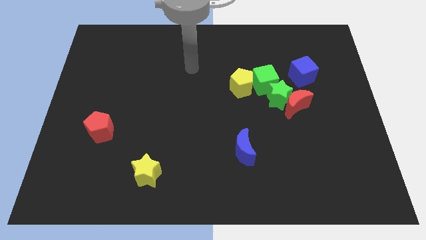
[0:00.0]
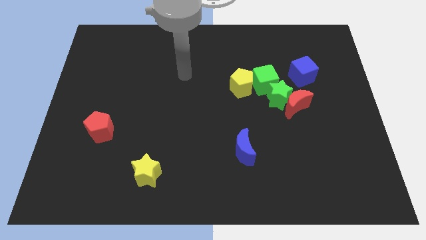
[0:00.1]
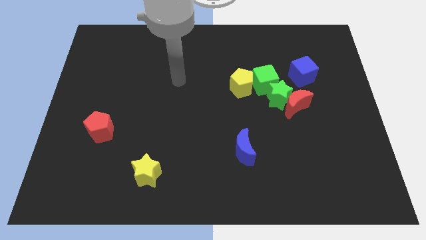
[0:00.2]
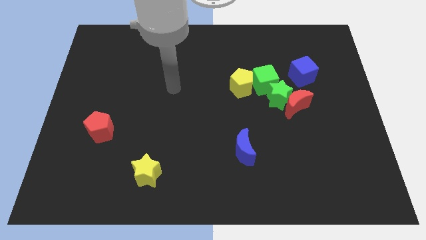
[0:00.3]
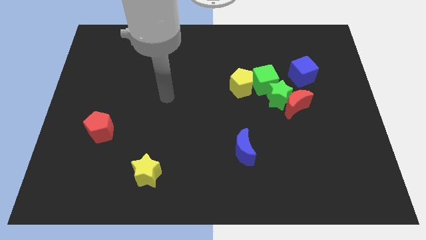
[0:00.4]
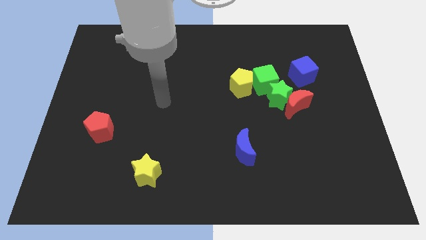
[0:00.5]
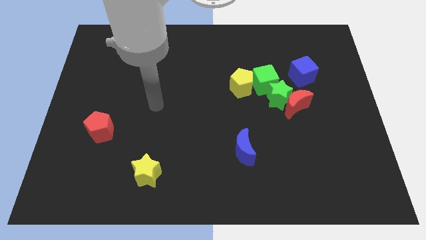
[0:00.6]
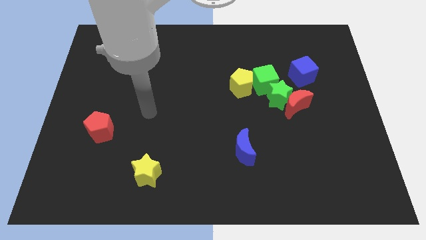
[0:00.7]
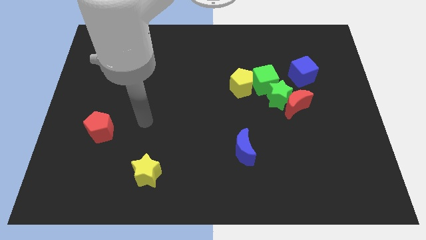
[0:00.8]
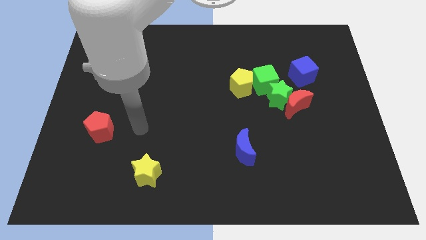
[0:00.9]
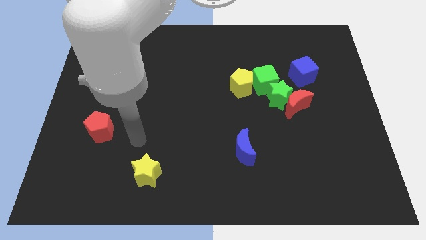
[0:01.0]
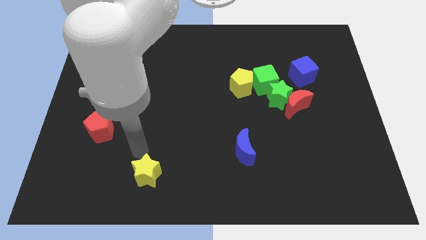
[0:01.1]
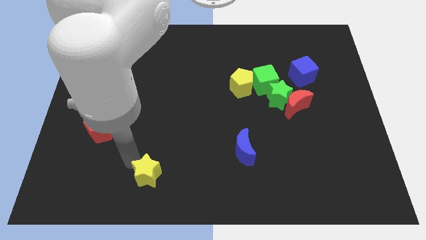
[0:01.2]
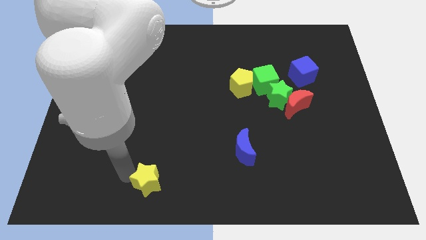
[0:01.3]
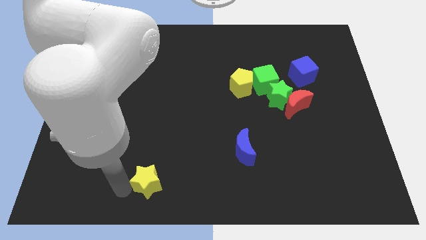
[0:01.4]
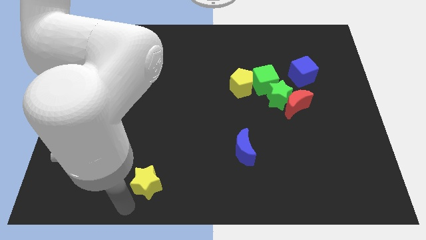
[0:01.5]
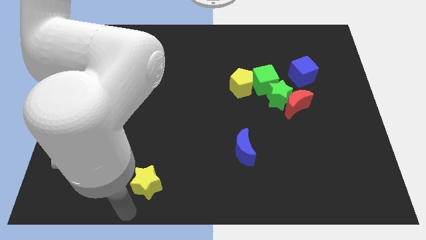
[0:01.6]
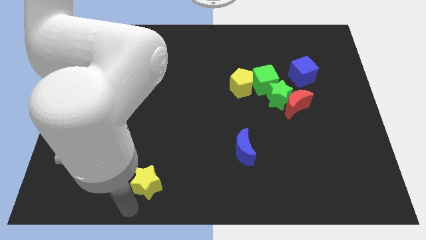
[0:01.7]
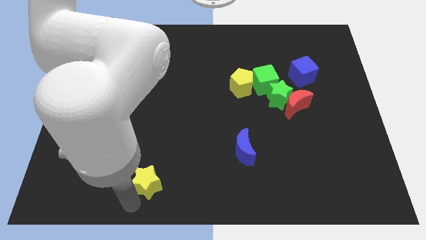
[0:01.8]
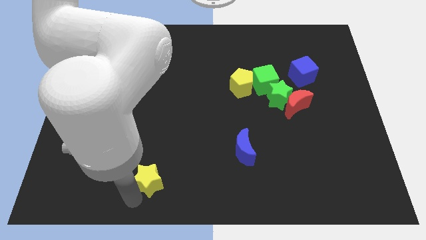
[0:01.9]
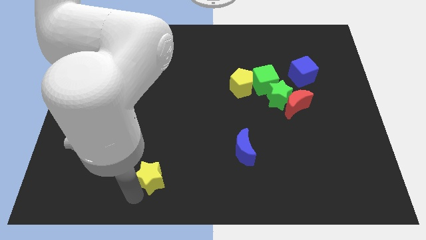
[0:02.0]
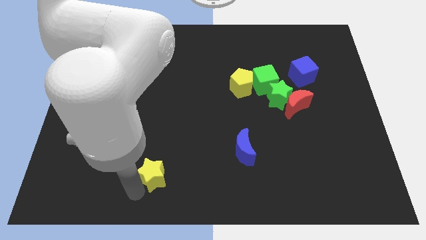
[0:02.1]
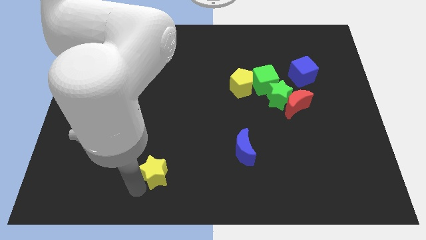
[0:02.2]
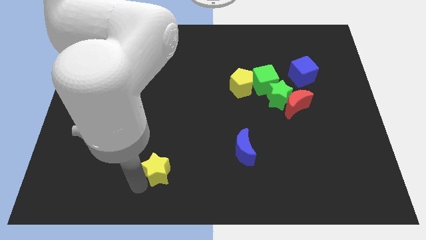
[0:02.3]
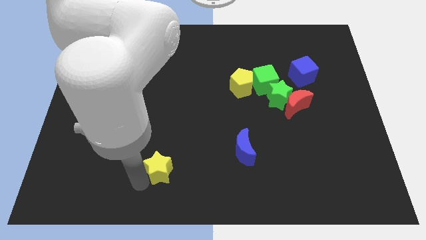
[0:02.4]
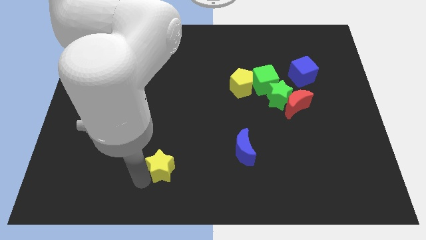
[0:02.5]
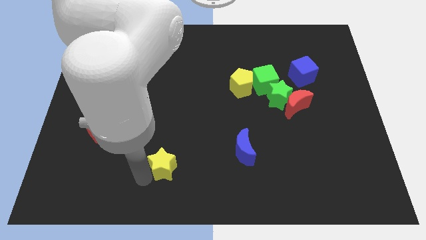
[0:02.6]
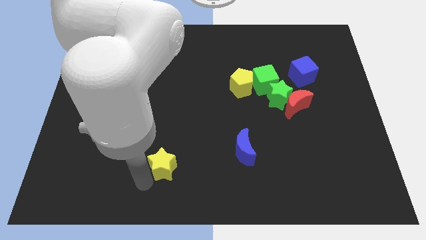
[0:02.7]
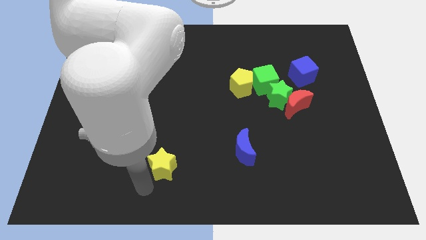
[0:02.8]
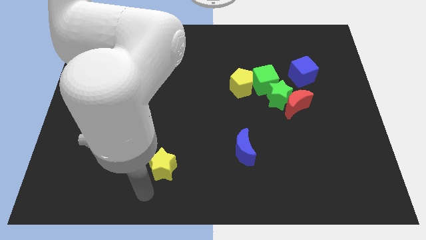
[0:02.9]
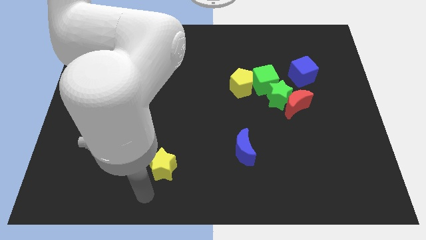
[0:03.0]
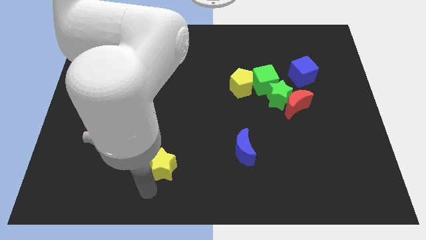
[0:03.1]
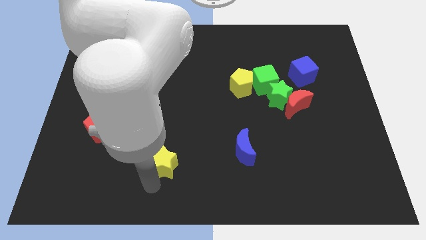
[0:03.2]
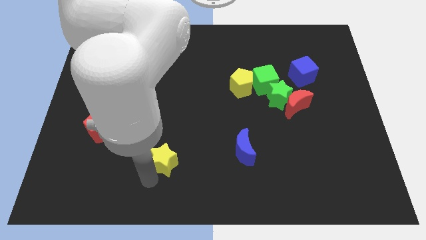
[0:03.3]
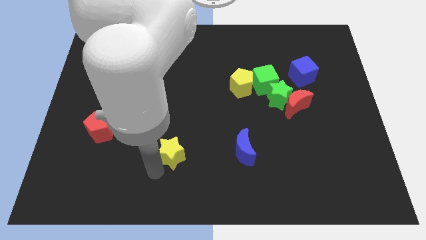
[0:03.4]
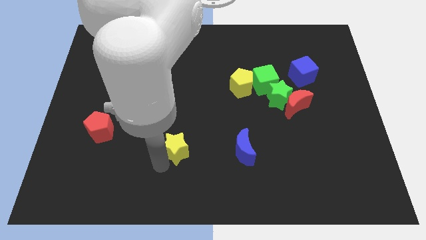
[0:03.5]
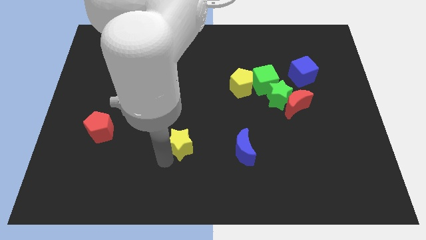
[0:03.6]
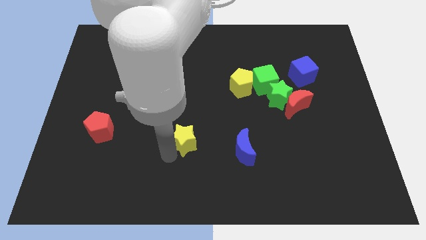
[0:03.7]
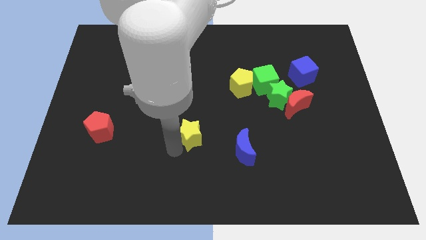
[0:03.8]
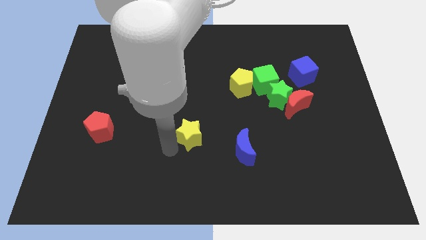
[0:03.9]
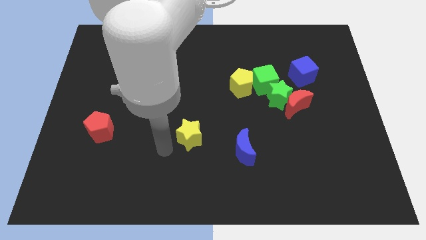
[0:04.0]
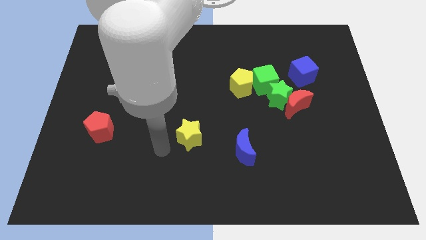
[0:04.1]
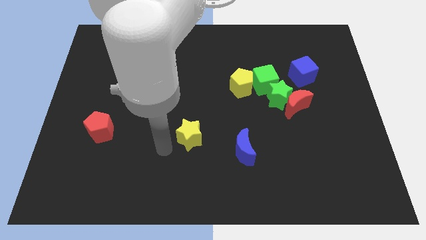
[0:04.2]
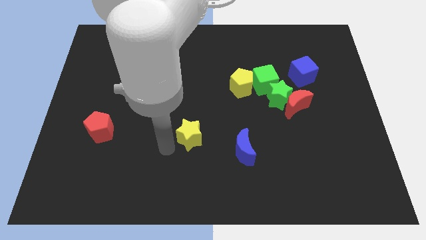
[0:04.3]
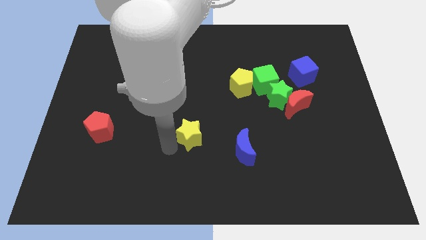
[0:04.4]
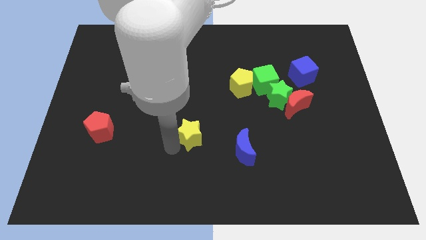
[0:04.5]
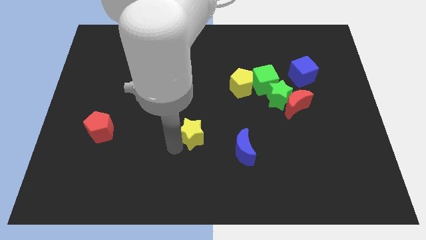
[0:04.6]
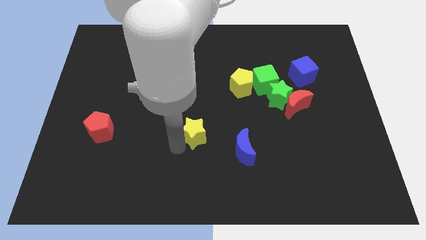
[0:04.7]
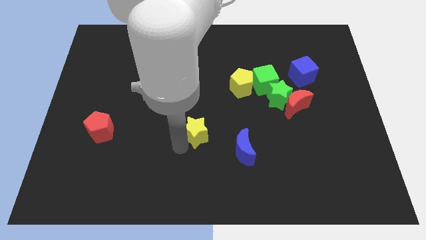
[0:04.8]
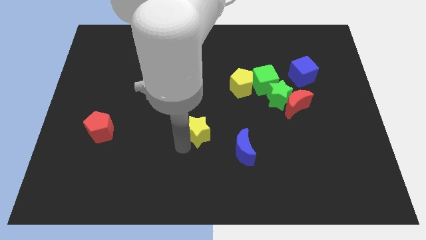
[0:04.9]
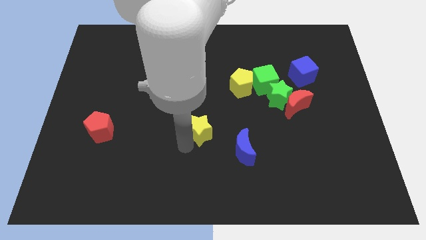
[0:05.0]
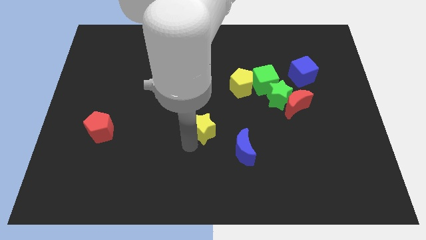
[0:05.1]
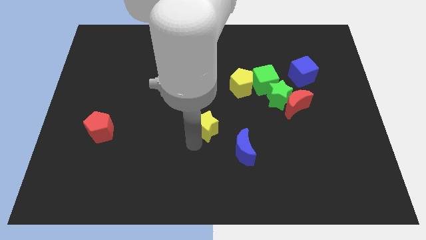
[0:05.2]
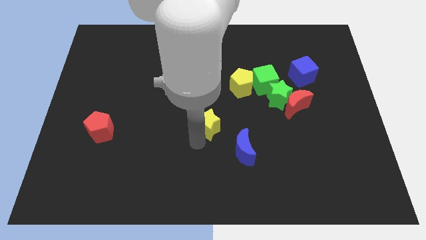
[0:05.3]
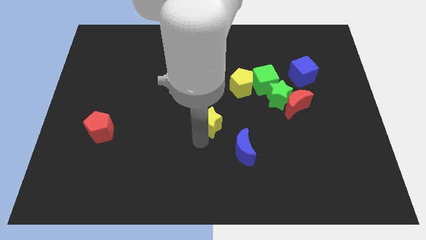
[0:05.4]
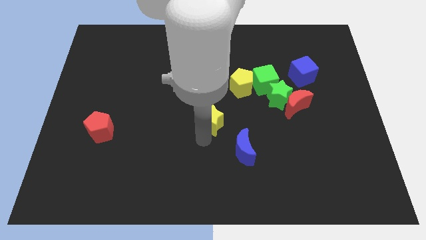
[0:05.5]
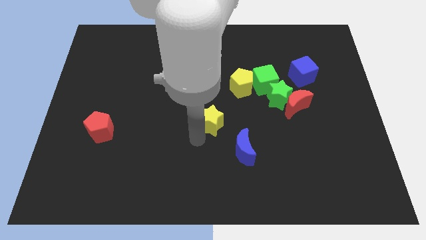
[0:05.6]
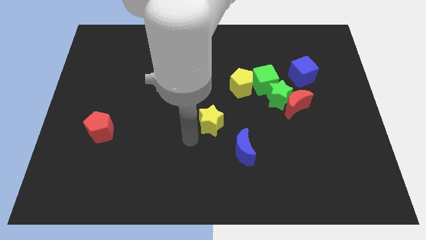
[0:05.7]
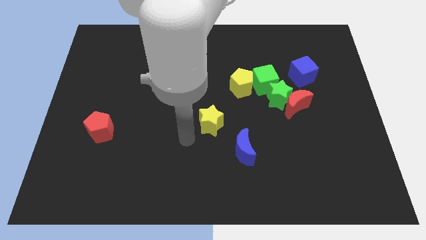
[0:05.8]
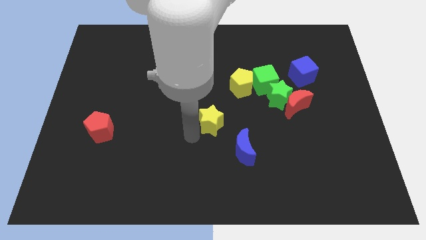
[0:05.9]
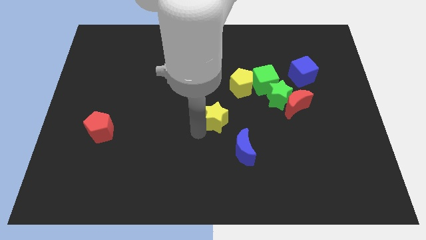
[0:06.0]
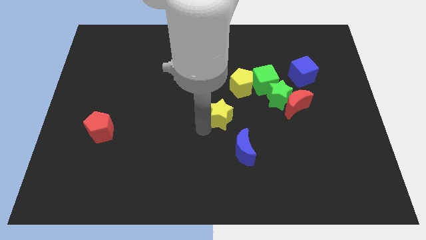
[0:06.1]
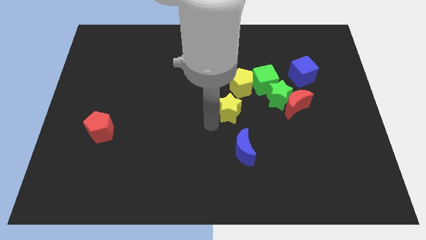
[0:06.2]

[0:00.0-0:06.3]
put the yellow star to the bottom left of the green cube

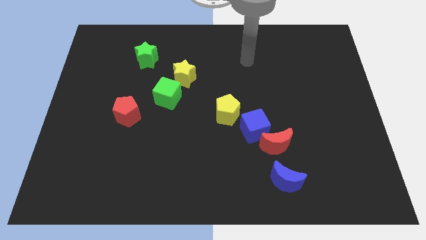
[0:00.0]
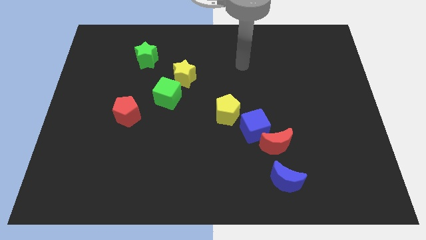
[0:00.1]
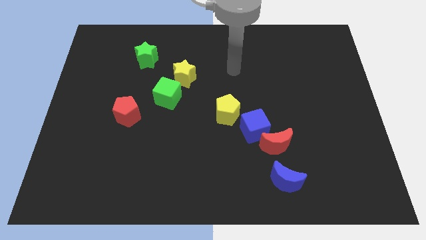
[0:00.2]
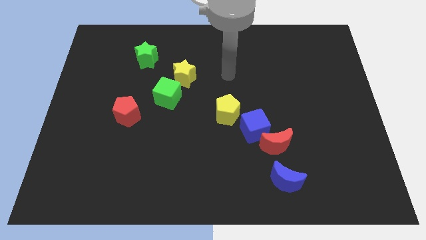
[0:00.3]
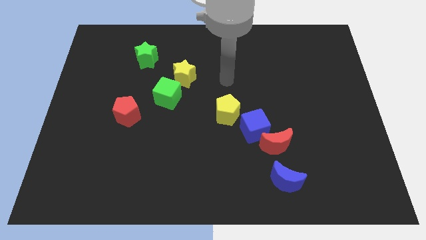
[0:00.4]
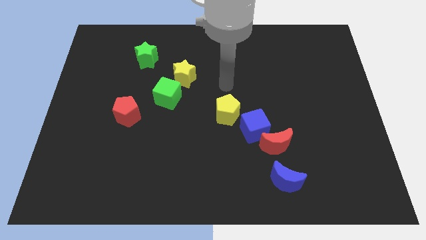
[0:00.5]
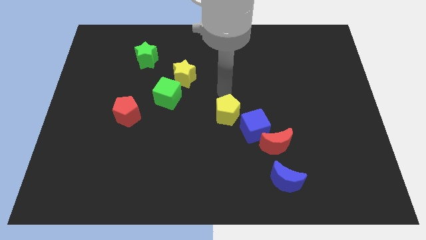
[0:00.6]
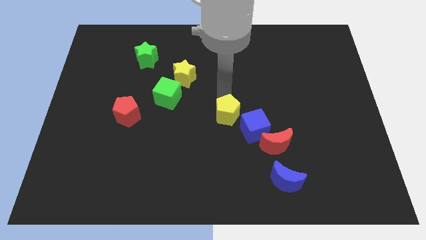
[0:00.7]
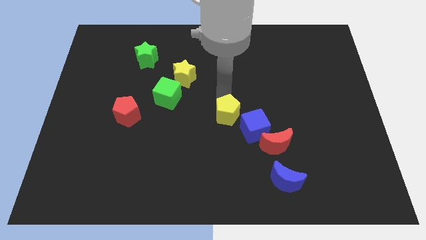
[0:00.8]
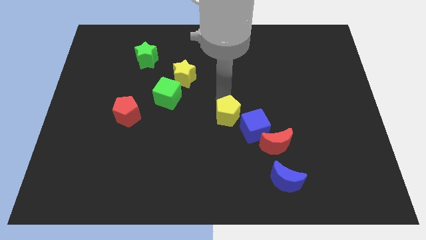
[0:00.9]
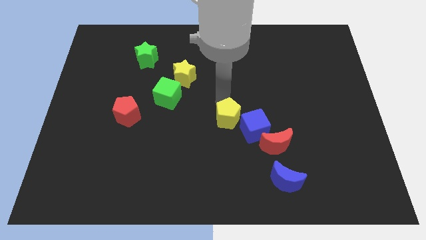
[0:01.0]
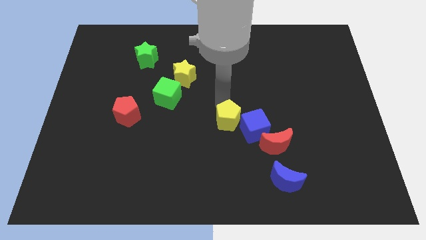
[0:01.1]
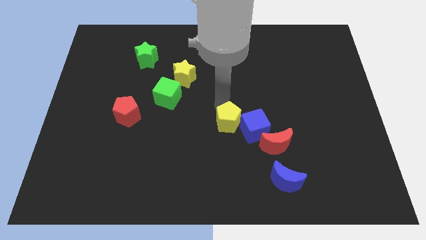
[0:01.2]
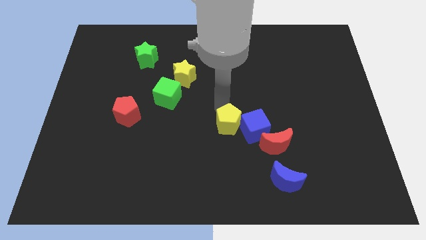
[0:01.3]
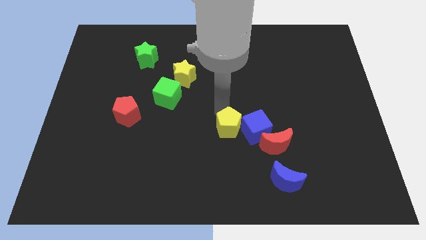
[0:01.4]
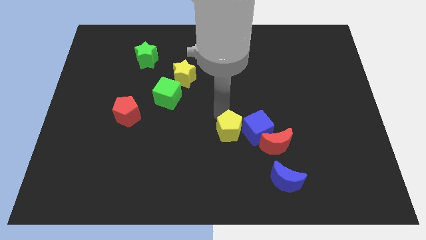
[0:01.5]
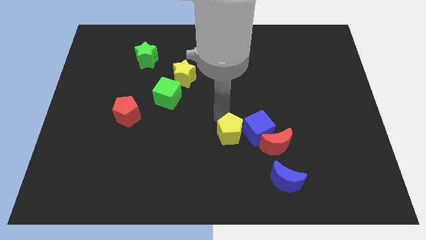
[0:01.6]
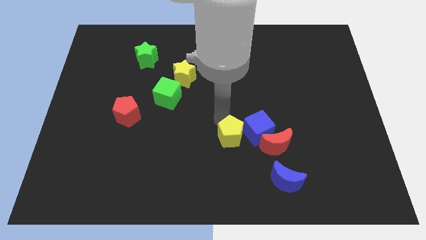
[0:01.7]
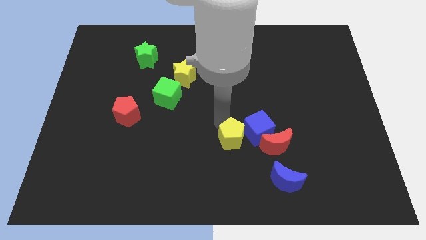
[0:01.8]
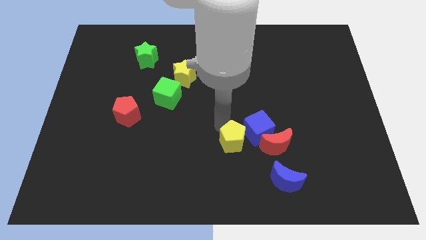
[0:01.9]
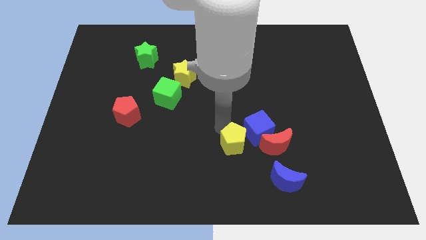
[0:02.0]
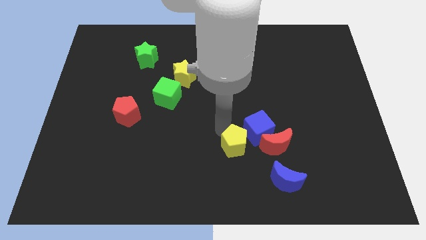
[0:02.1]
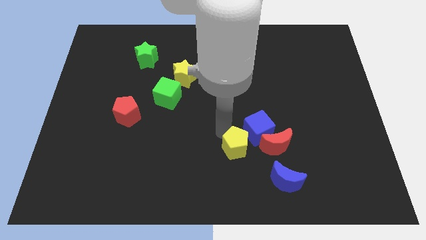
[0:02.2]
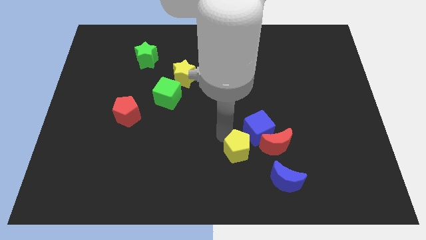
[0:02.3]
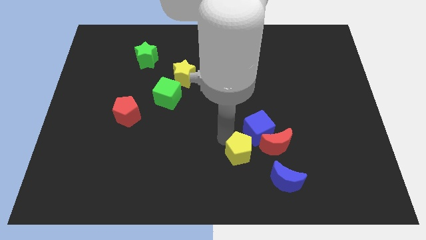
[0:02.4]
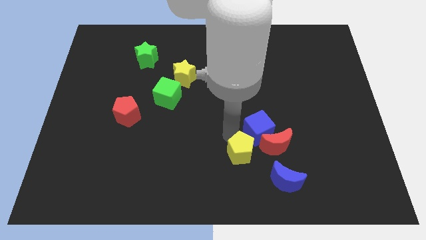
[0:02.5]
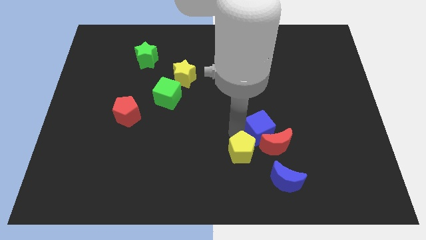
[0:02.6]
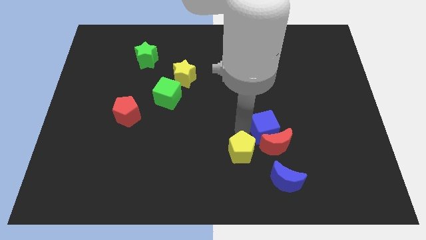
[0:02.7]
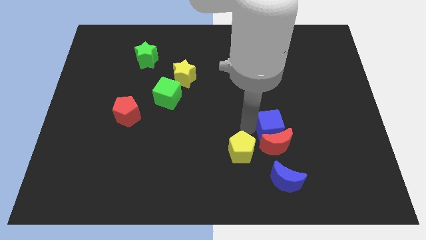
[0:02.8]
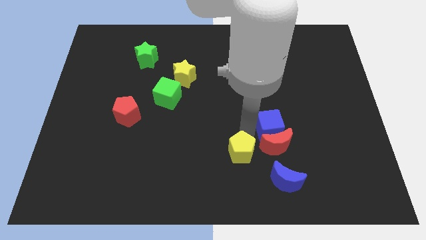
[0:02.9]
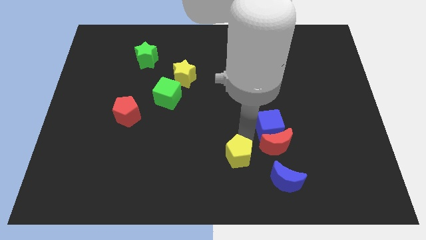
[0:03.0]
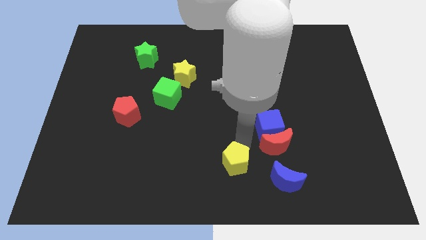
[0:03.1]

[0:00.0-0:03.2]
move the yellow pentagon to the left side of the blue moon
